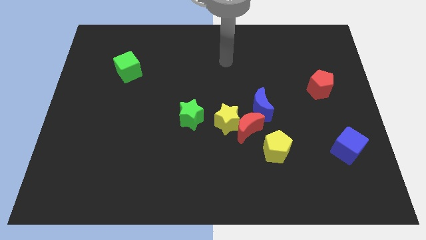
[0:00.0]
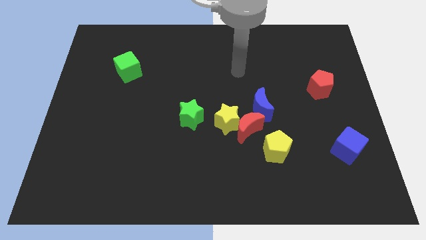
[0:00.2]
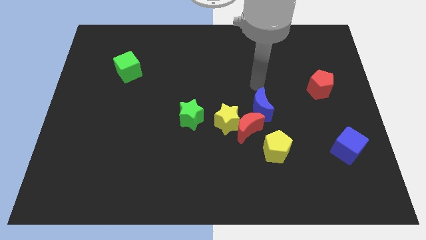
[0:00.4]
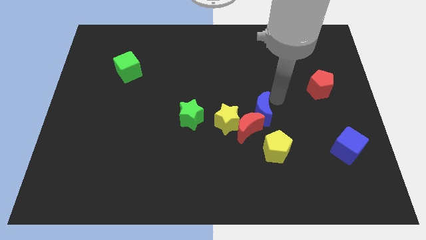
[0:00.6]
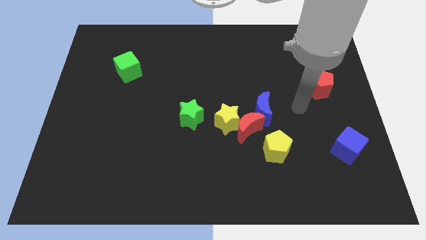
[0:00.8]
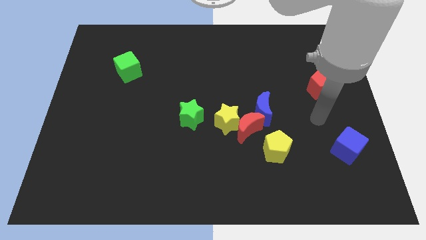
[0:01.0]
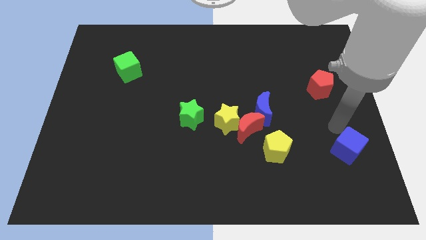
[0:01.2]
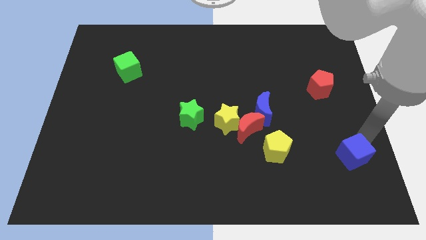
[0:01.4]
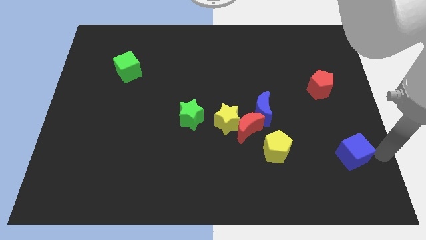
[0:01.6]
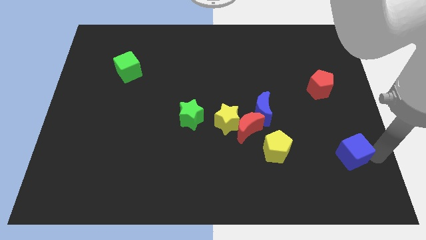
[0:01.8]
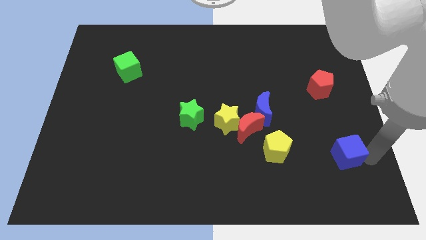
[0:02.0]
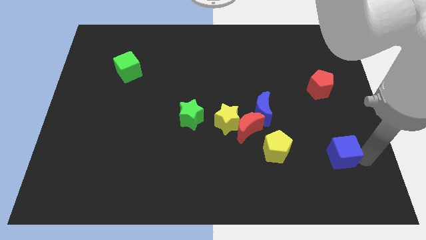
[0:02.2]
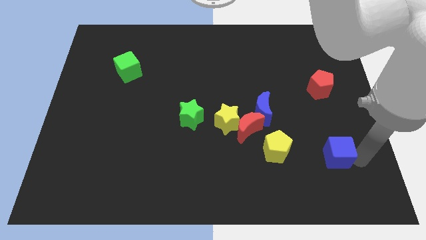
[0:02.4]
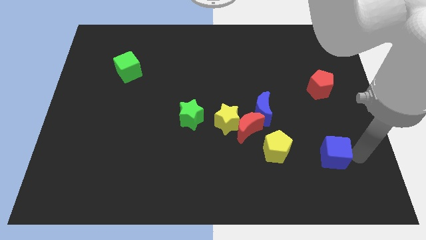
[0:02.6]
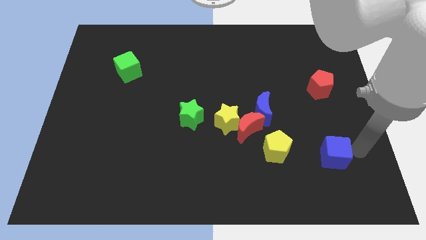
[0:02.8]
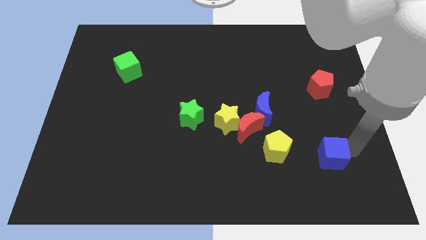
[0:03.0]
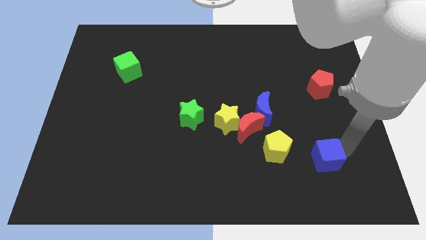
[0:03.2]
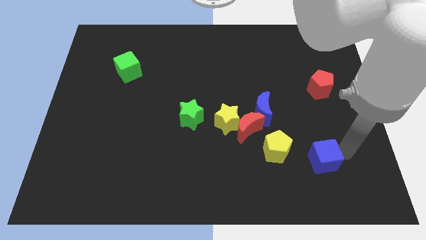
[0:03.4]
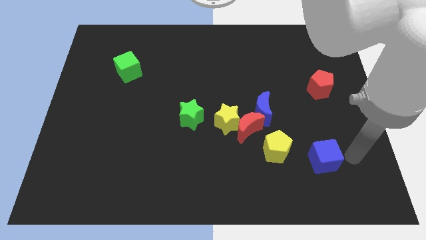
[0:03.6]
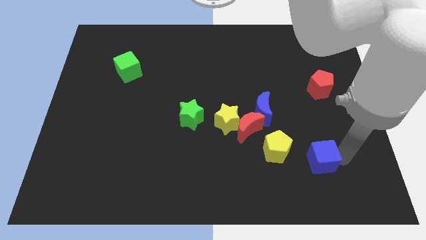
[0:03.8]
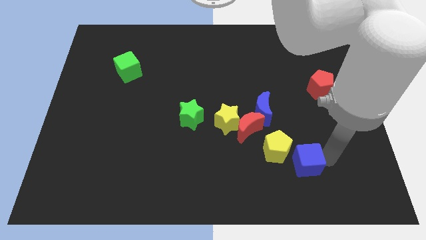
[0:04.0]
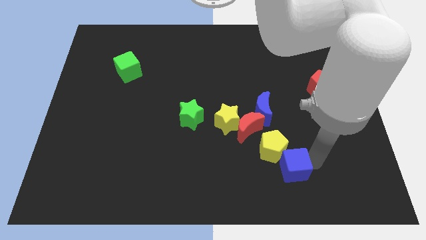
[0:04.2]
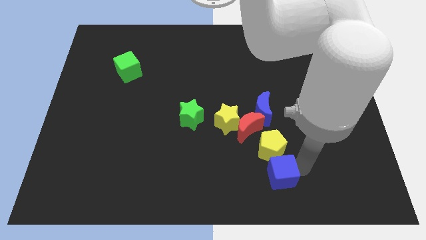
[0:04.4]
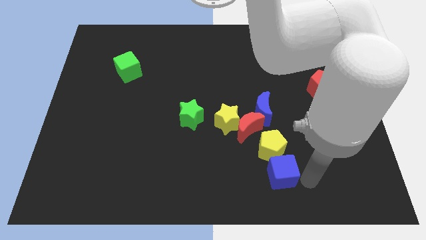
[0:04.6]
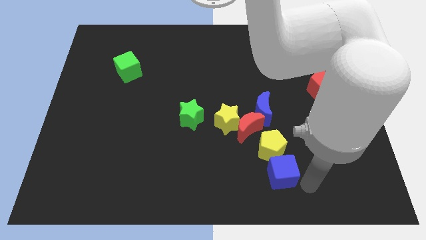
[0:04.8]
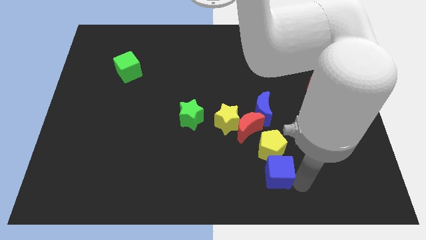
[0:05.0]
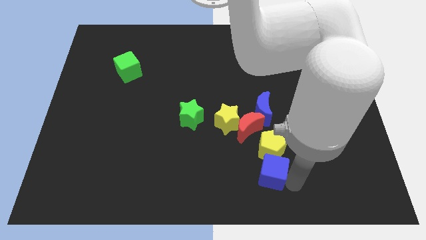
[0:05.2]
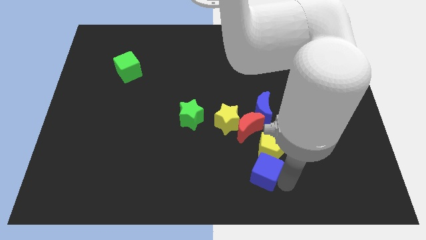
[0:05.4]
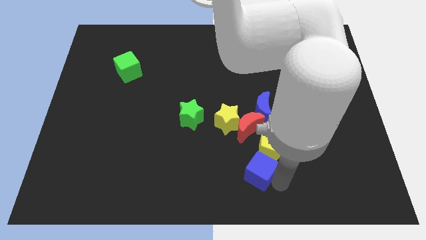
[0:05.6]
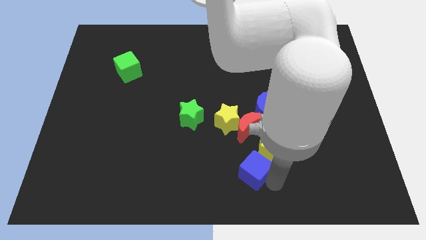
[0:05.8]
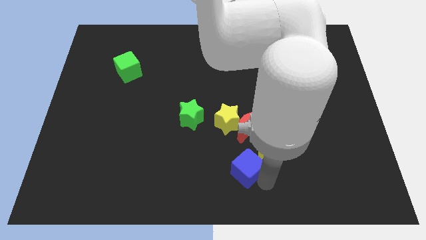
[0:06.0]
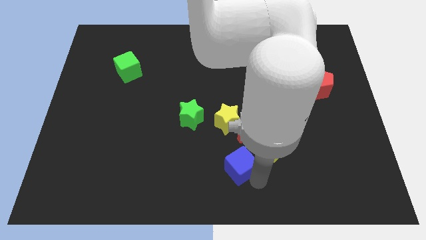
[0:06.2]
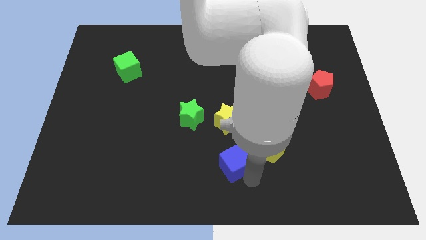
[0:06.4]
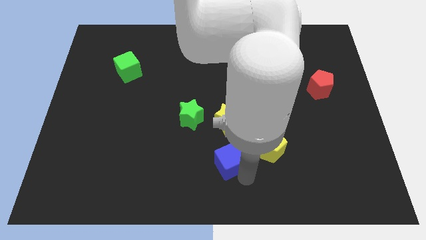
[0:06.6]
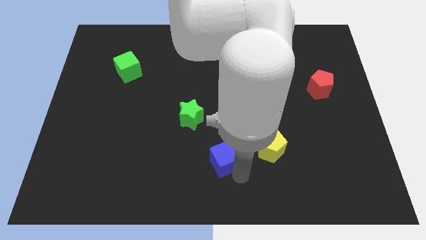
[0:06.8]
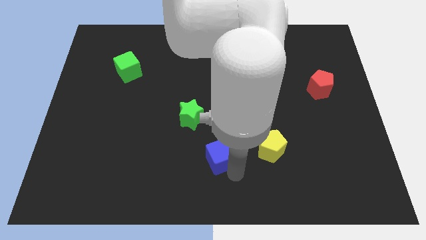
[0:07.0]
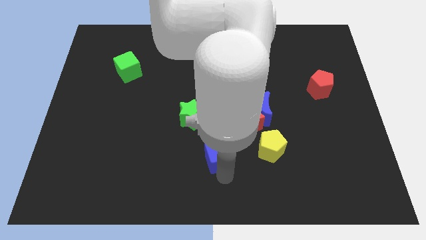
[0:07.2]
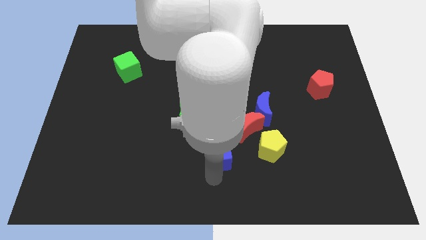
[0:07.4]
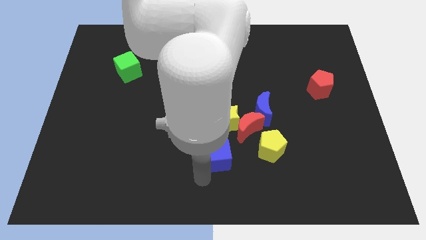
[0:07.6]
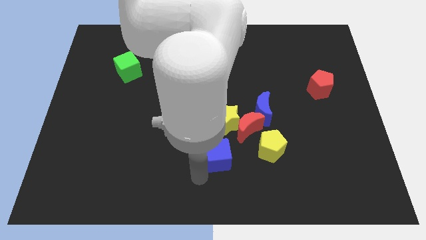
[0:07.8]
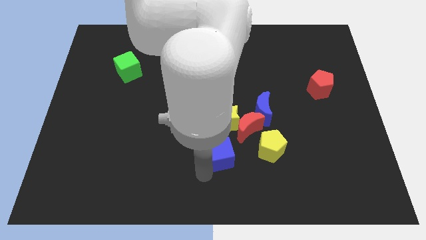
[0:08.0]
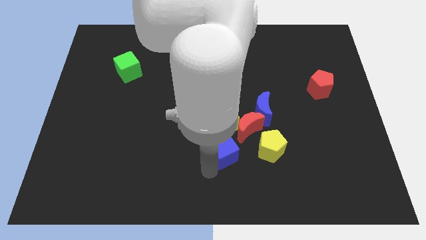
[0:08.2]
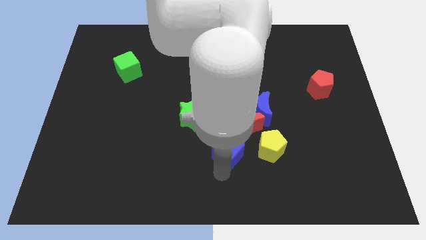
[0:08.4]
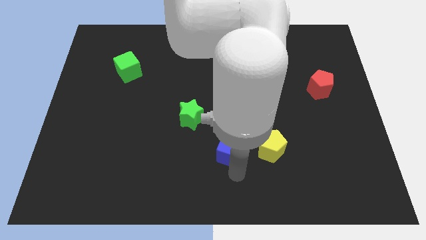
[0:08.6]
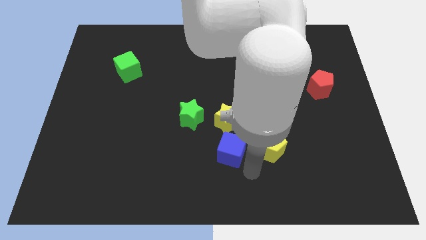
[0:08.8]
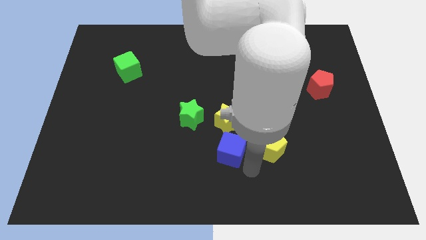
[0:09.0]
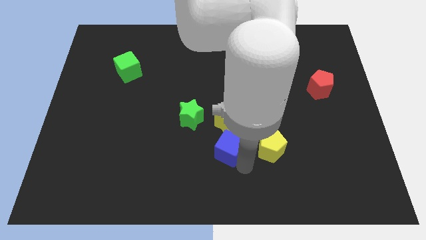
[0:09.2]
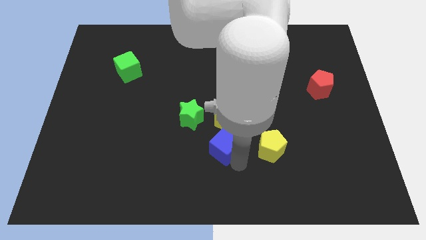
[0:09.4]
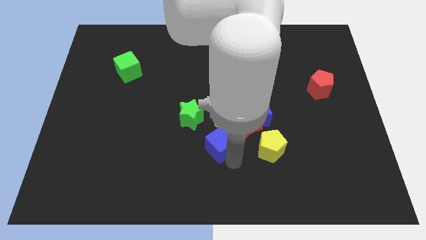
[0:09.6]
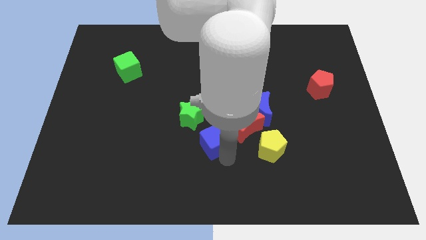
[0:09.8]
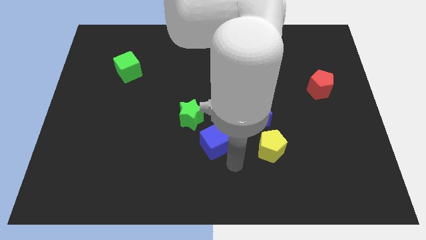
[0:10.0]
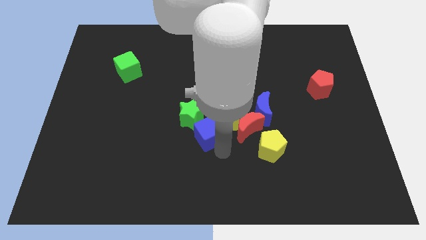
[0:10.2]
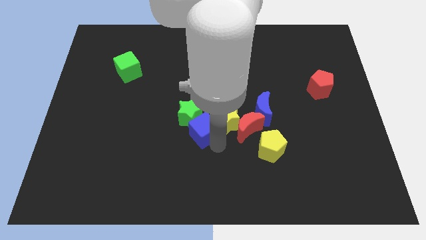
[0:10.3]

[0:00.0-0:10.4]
push the blue cube next to the green star

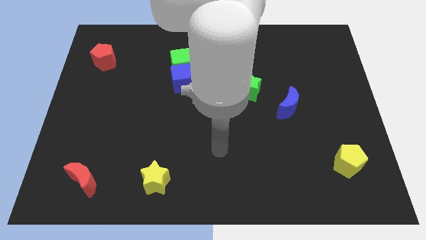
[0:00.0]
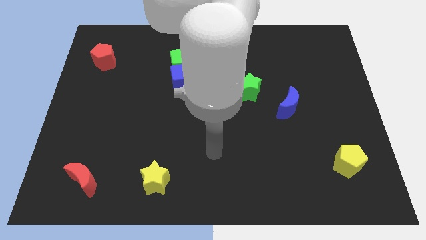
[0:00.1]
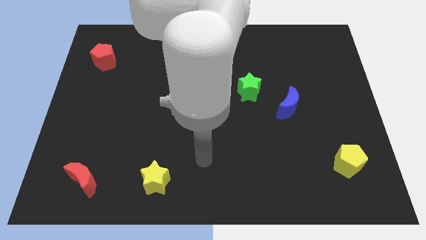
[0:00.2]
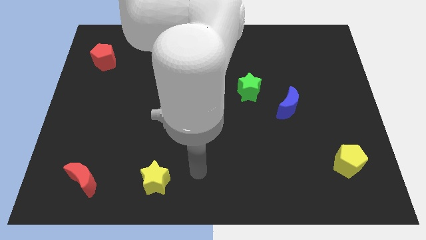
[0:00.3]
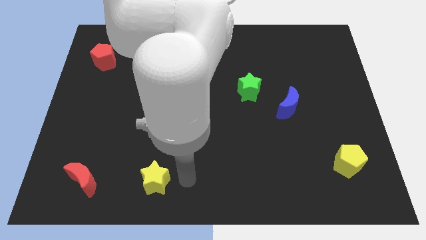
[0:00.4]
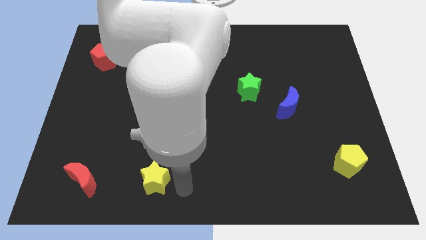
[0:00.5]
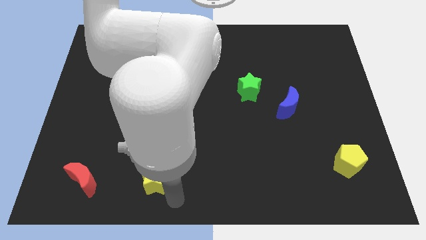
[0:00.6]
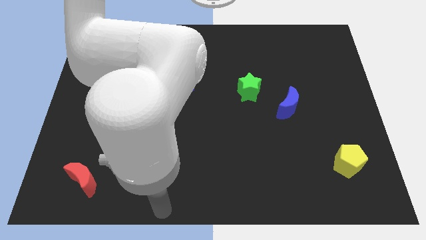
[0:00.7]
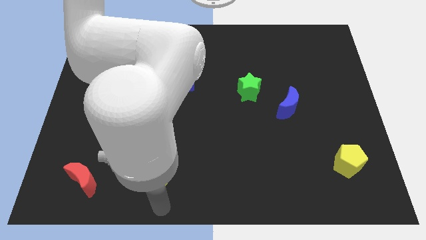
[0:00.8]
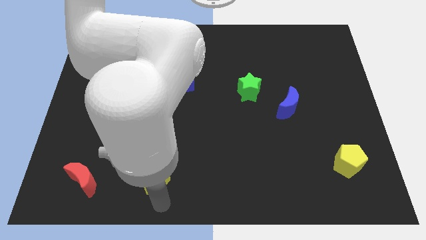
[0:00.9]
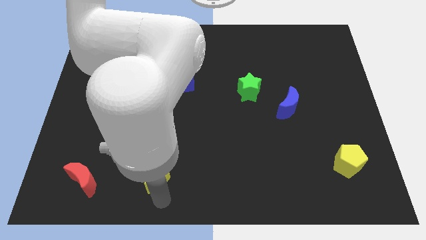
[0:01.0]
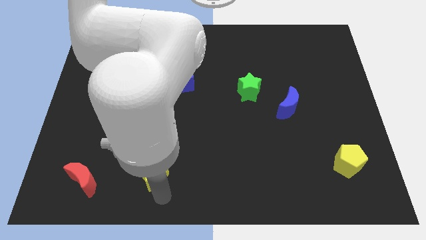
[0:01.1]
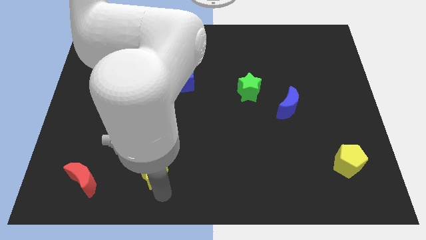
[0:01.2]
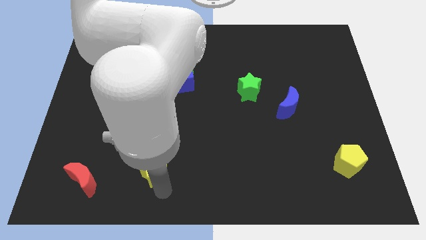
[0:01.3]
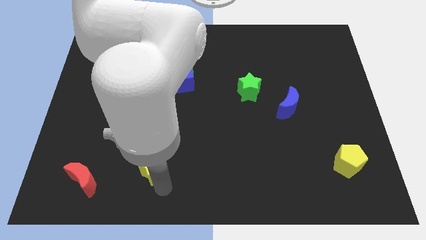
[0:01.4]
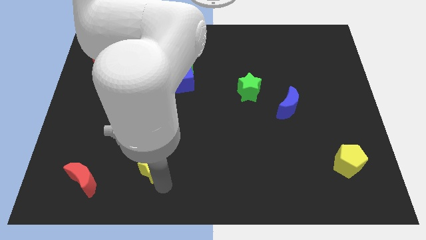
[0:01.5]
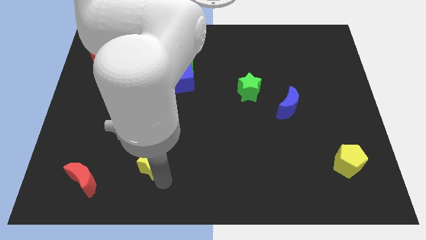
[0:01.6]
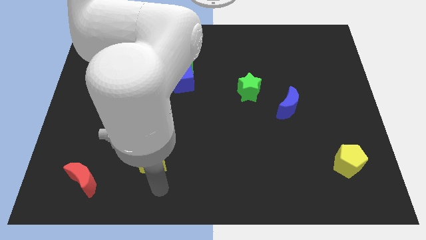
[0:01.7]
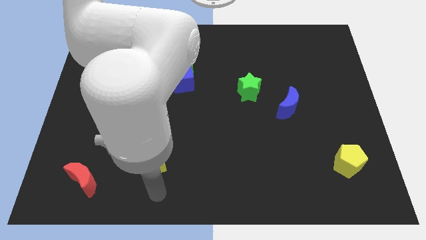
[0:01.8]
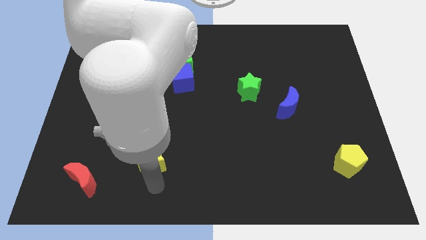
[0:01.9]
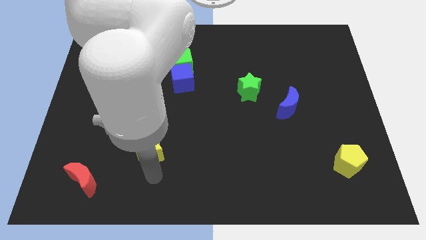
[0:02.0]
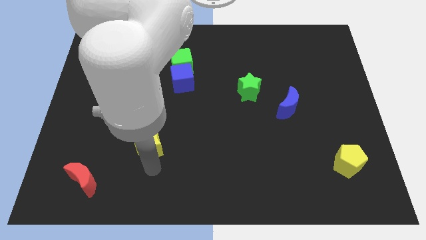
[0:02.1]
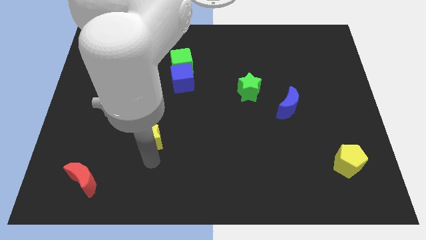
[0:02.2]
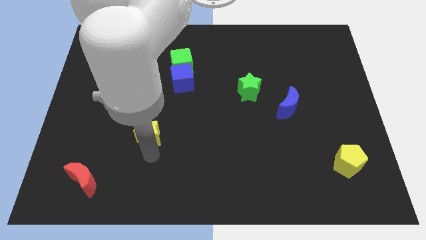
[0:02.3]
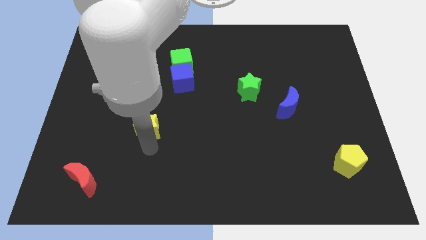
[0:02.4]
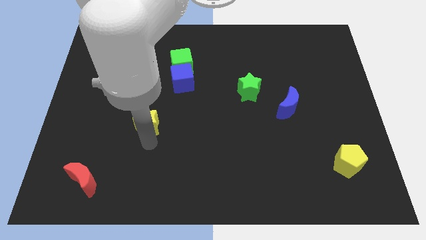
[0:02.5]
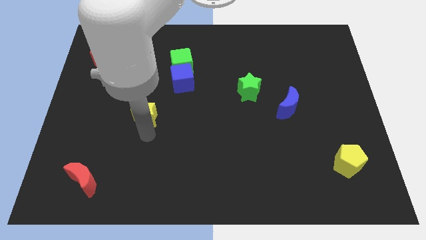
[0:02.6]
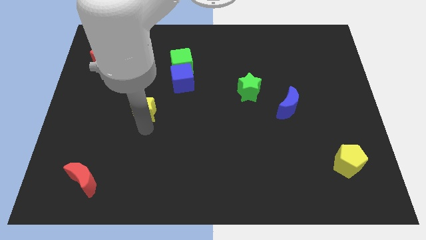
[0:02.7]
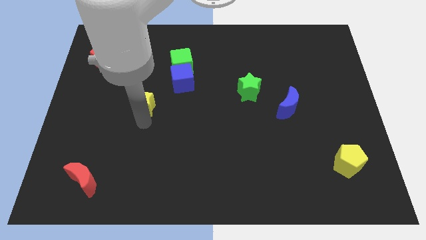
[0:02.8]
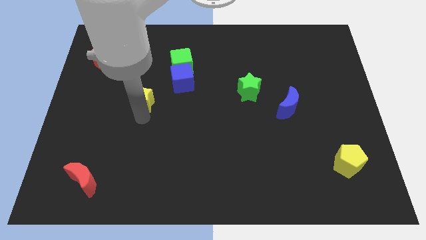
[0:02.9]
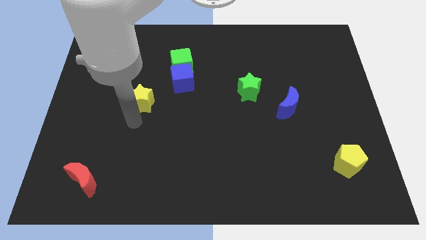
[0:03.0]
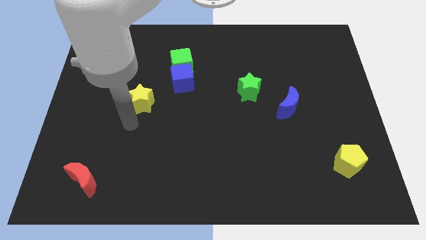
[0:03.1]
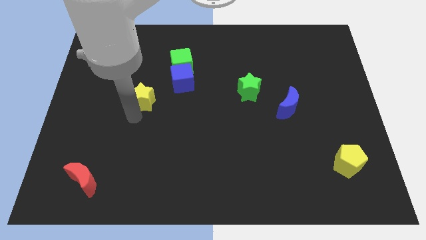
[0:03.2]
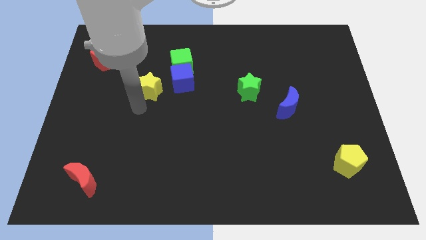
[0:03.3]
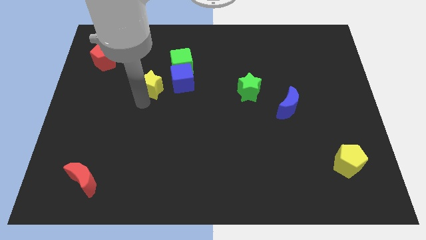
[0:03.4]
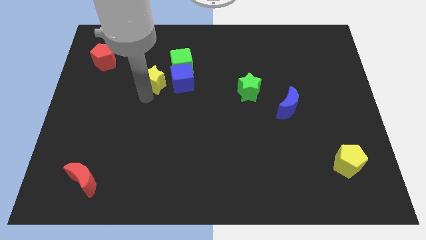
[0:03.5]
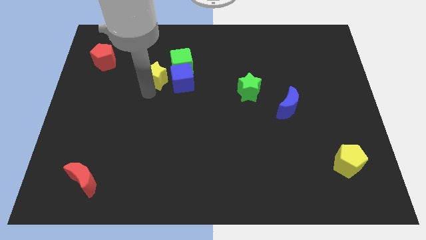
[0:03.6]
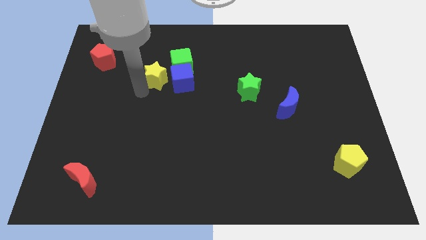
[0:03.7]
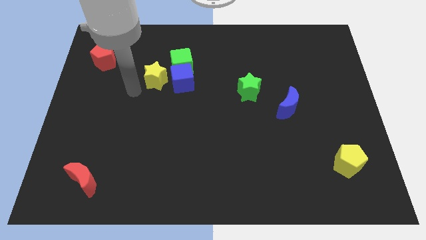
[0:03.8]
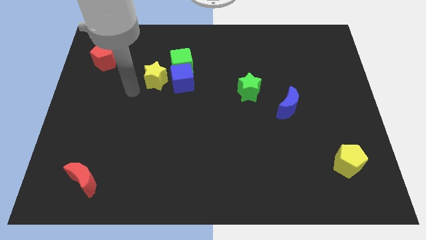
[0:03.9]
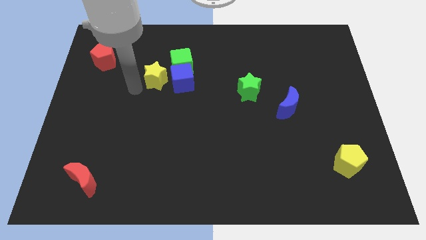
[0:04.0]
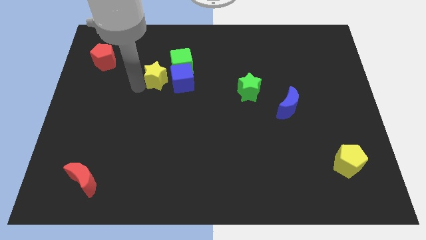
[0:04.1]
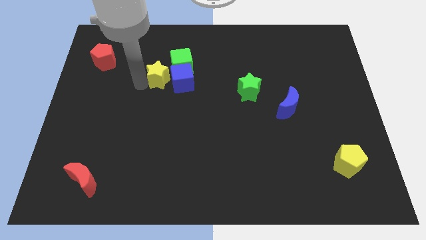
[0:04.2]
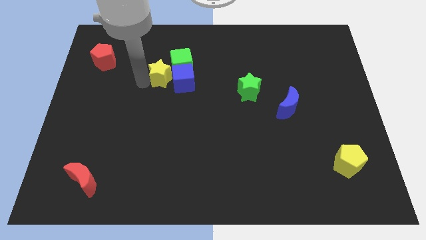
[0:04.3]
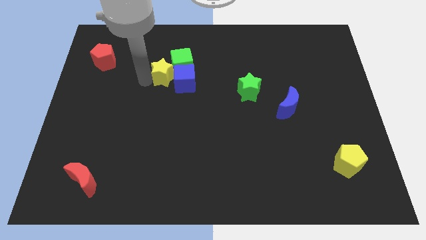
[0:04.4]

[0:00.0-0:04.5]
slide the yellow star towards the green cube
